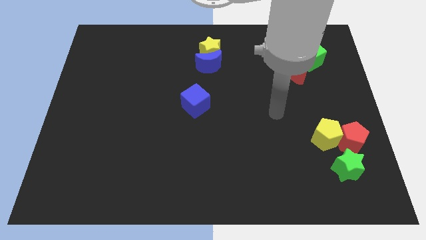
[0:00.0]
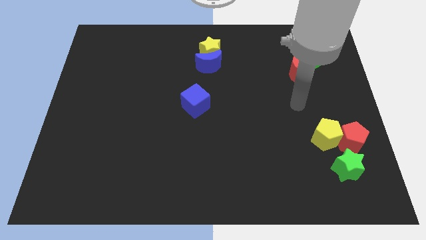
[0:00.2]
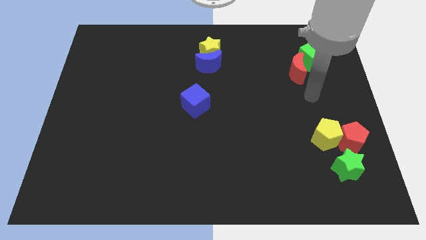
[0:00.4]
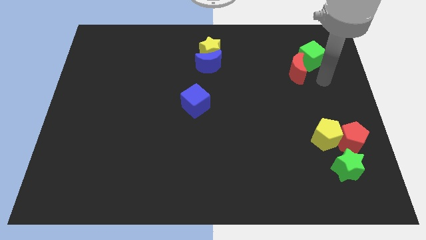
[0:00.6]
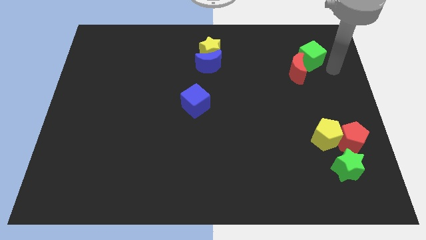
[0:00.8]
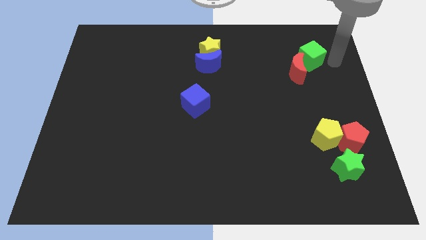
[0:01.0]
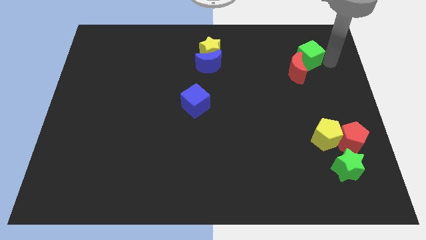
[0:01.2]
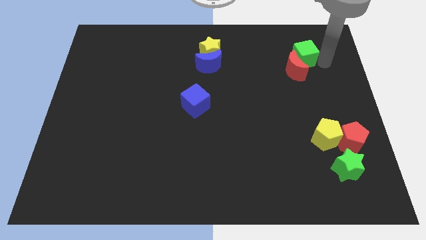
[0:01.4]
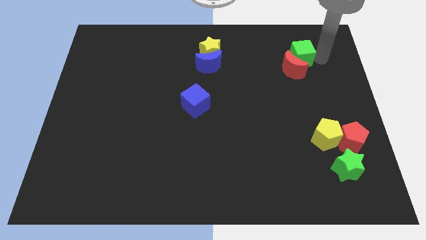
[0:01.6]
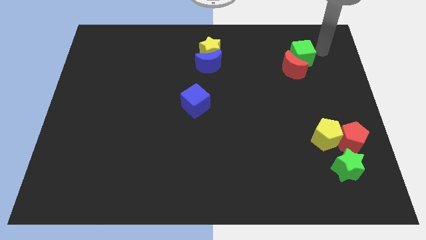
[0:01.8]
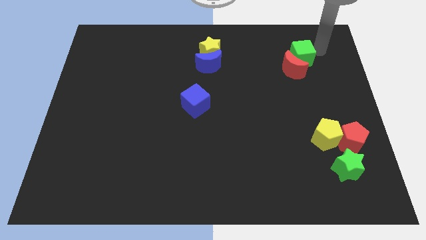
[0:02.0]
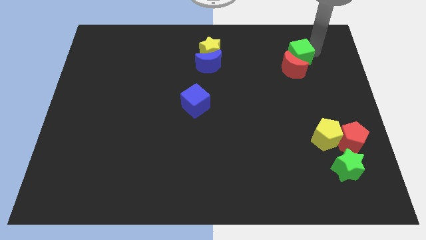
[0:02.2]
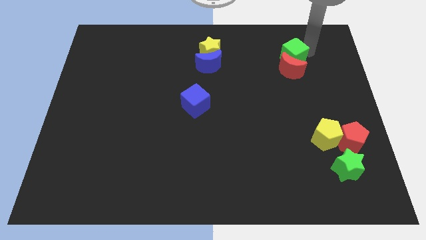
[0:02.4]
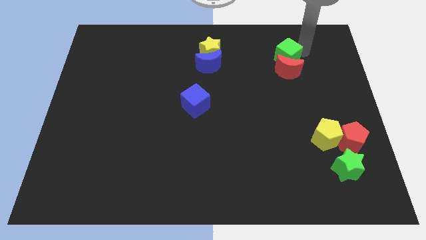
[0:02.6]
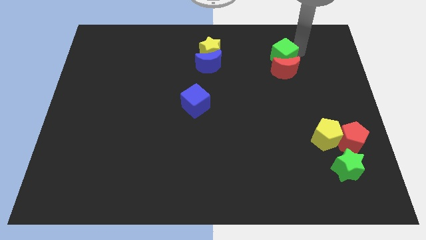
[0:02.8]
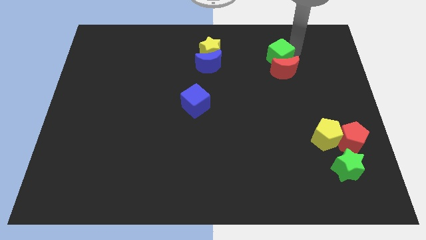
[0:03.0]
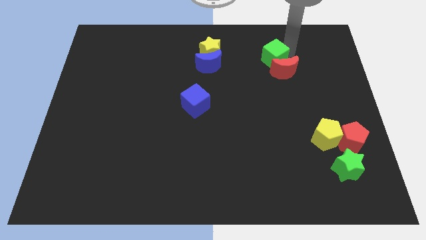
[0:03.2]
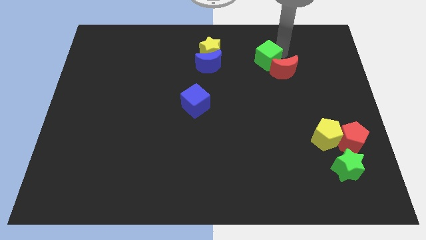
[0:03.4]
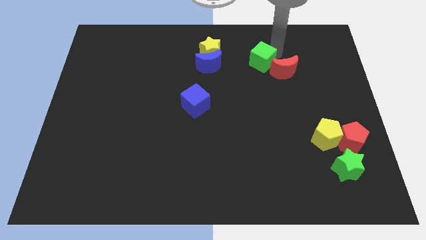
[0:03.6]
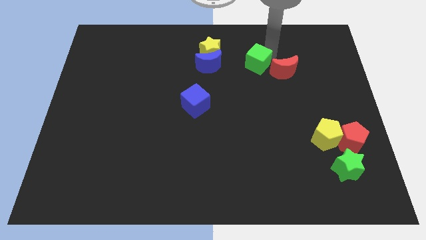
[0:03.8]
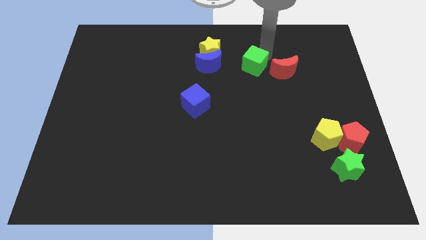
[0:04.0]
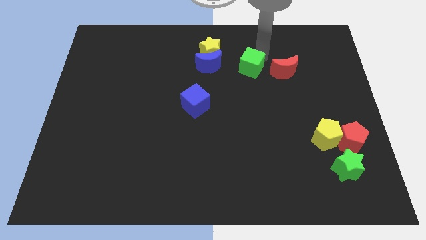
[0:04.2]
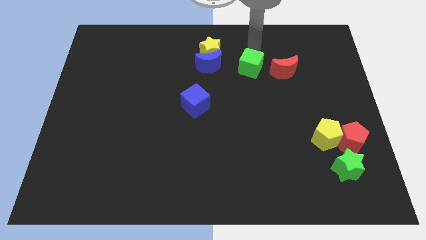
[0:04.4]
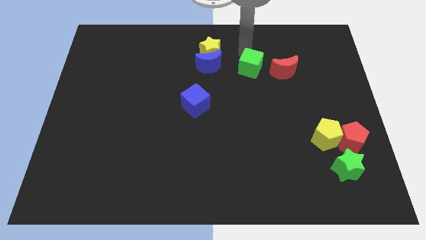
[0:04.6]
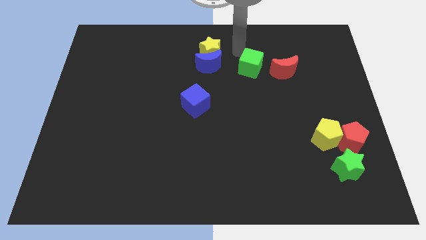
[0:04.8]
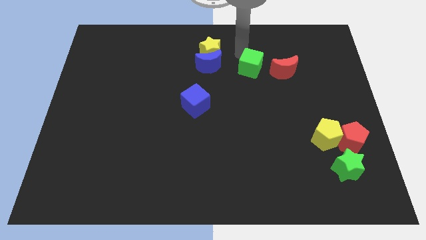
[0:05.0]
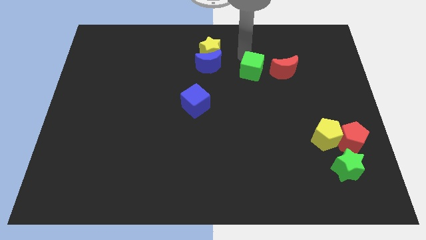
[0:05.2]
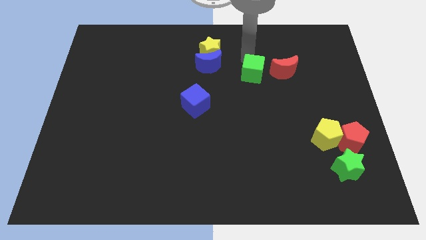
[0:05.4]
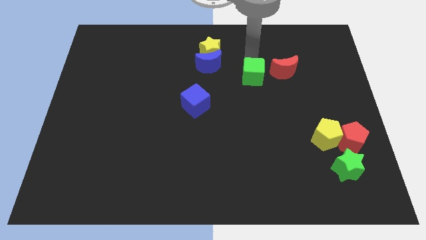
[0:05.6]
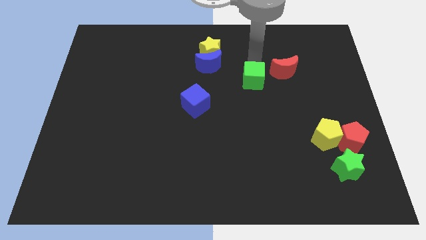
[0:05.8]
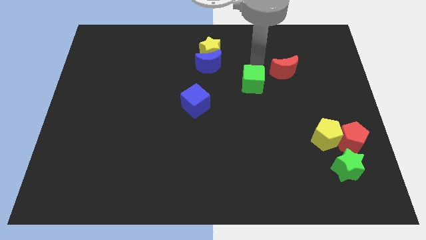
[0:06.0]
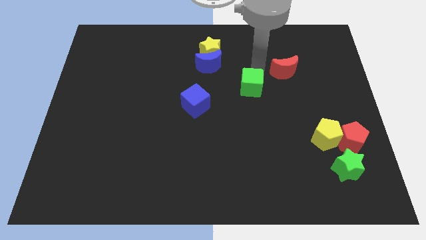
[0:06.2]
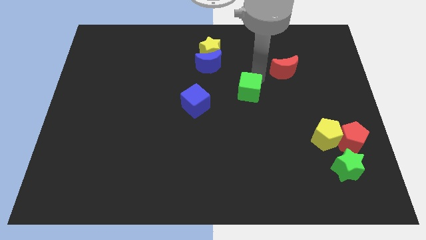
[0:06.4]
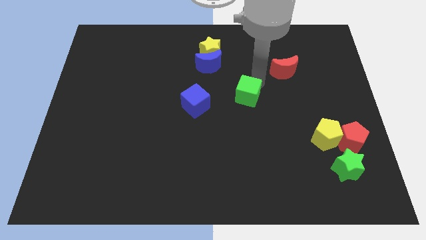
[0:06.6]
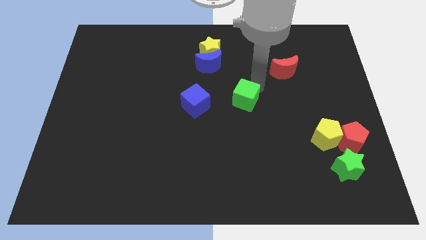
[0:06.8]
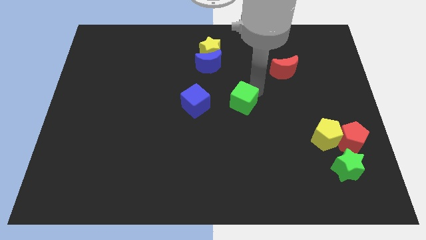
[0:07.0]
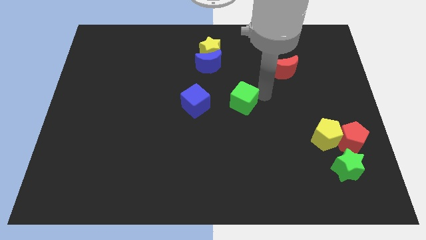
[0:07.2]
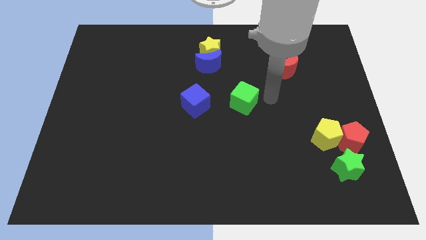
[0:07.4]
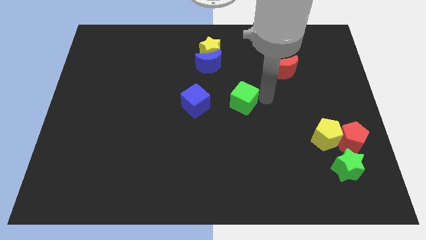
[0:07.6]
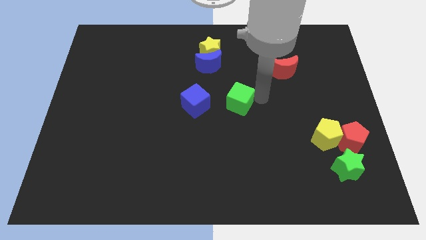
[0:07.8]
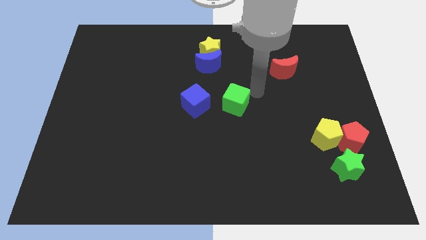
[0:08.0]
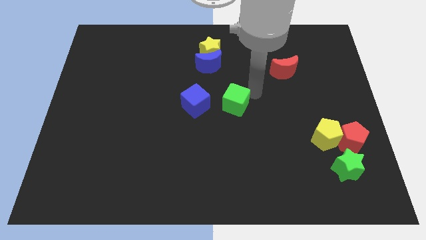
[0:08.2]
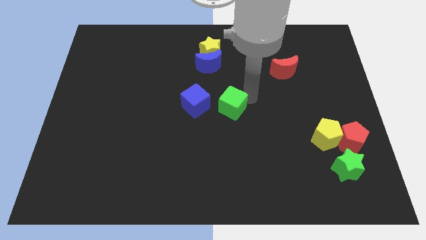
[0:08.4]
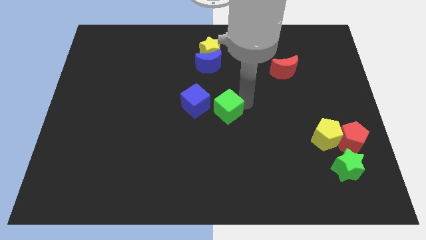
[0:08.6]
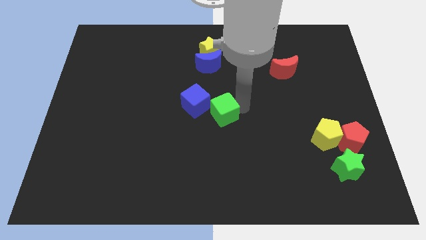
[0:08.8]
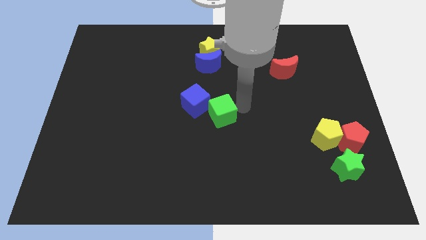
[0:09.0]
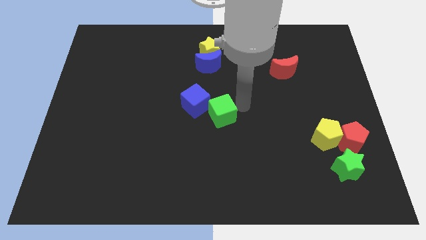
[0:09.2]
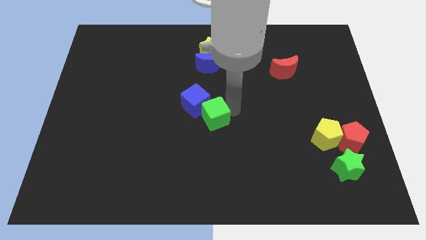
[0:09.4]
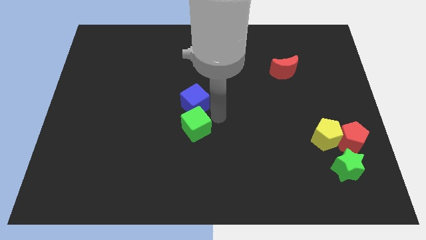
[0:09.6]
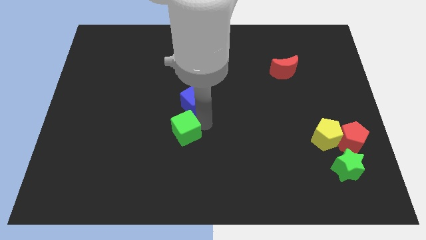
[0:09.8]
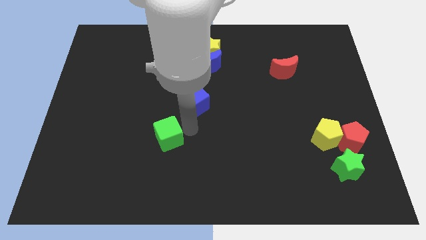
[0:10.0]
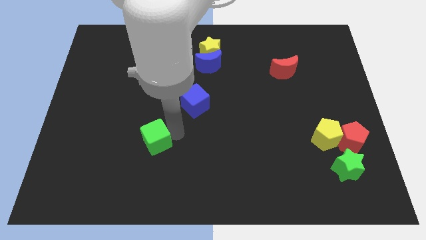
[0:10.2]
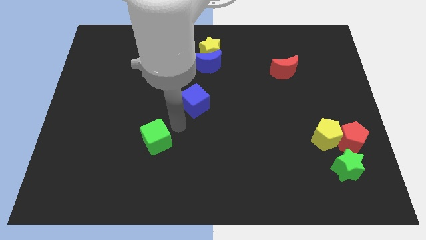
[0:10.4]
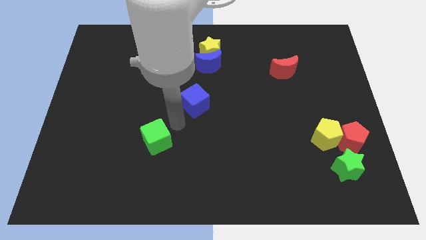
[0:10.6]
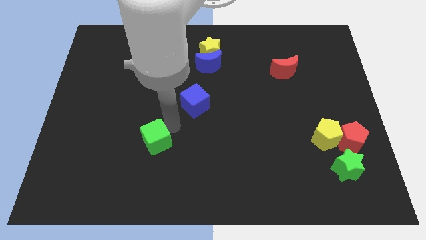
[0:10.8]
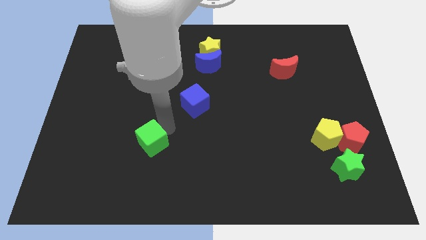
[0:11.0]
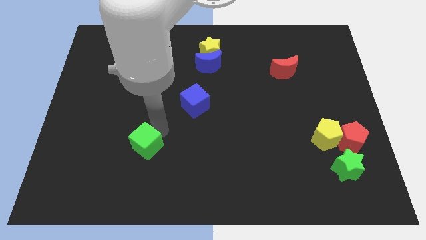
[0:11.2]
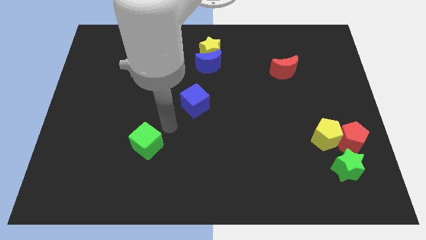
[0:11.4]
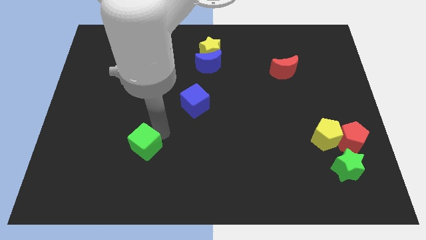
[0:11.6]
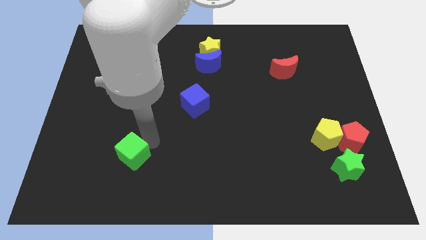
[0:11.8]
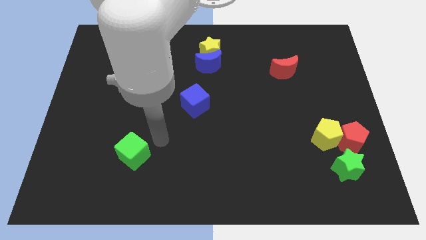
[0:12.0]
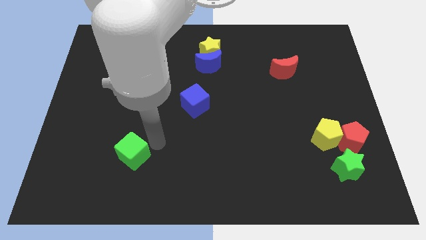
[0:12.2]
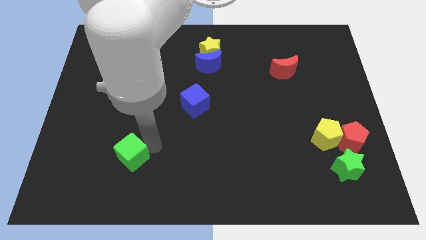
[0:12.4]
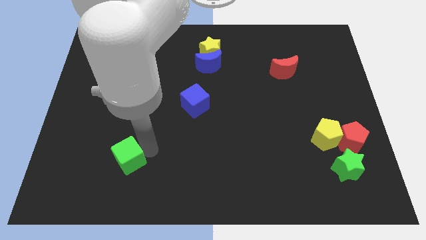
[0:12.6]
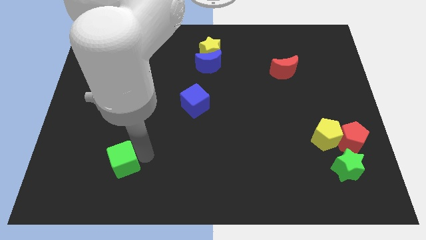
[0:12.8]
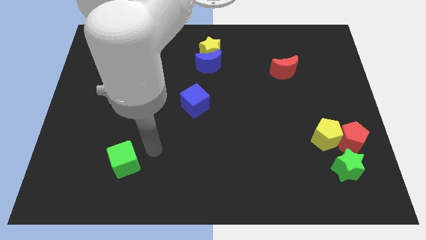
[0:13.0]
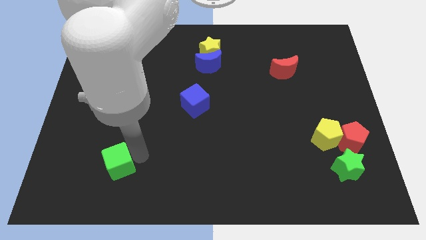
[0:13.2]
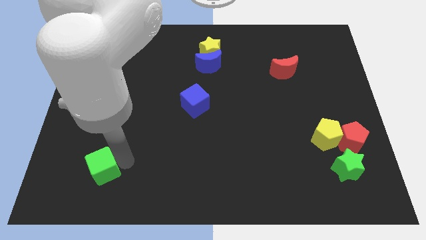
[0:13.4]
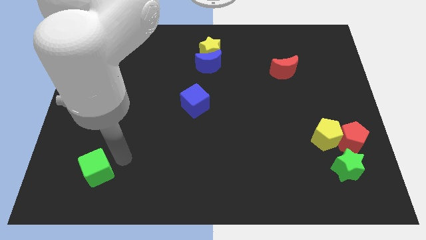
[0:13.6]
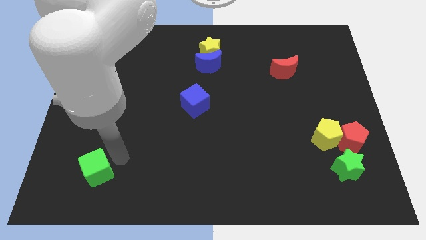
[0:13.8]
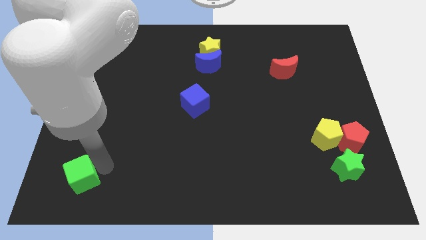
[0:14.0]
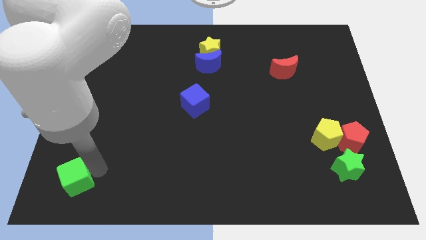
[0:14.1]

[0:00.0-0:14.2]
slide the green cube to the lower left corner

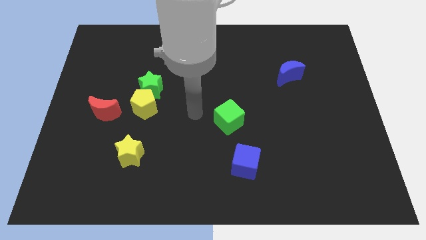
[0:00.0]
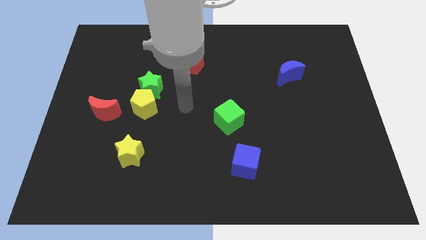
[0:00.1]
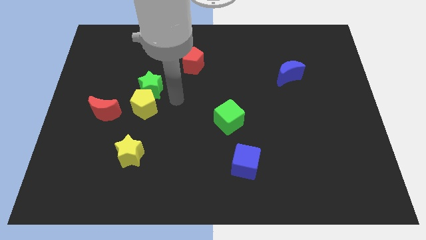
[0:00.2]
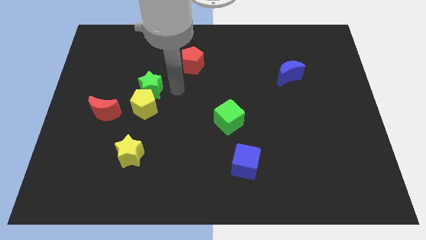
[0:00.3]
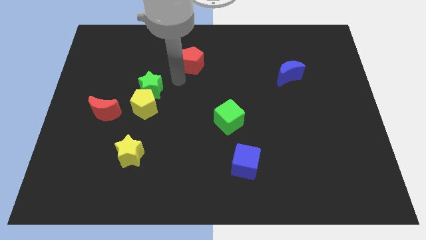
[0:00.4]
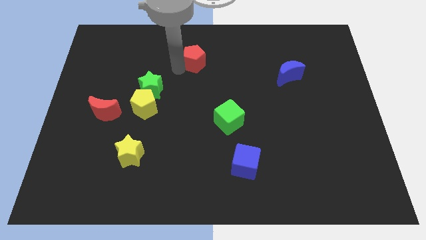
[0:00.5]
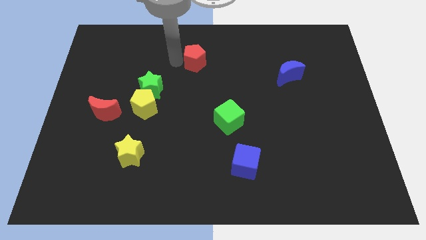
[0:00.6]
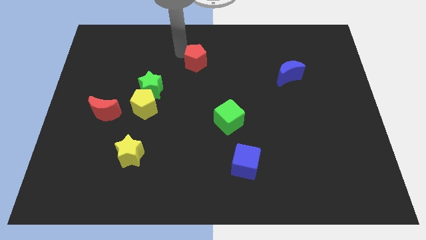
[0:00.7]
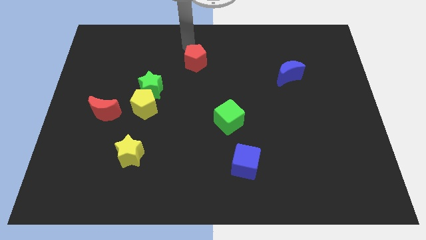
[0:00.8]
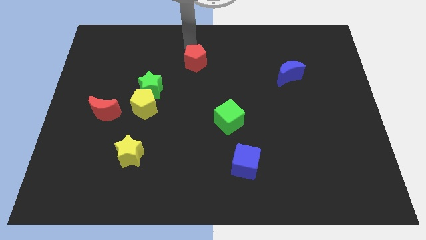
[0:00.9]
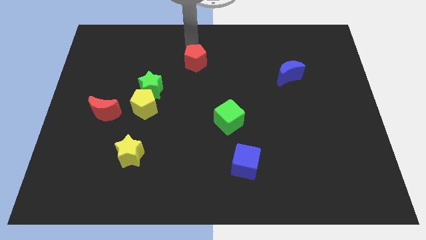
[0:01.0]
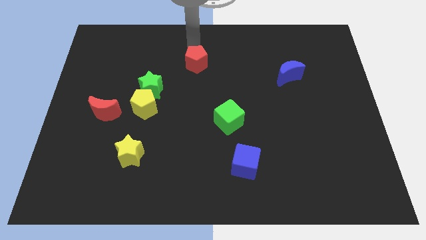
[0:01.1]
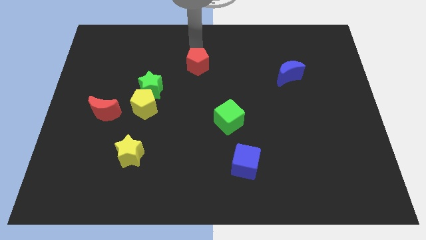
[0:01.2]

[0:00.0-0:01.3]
slide the red pentagon to the middle of the board
